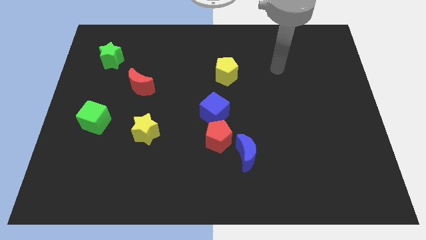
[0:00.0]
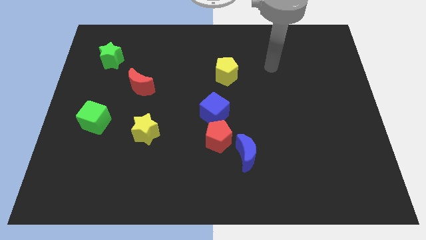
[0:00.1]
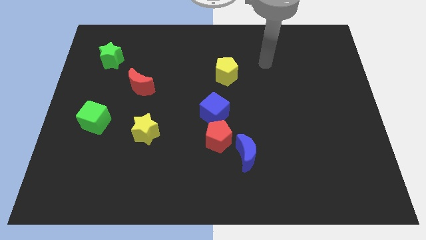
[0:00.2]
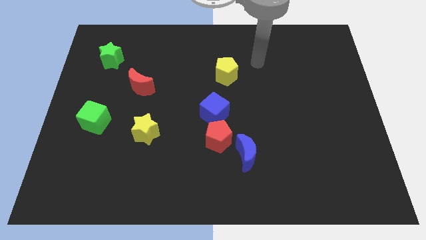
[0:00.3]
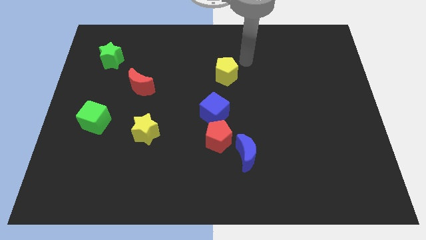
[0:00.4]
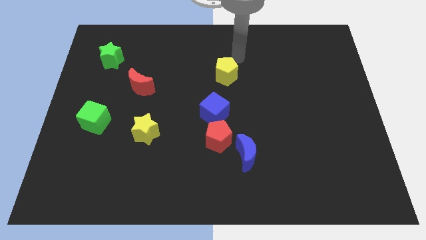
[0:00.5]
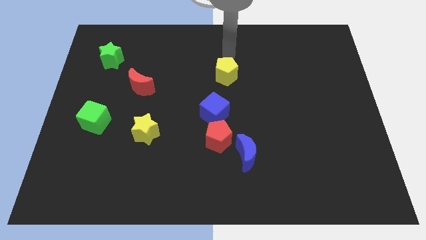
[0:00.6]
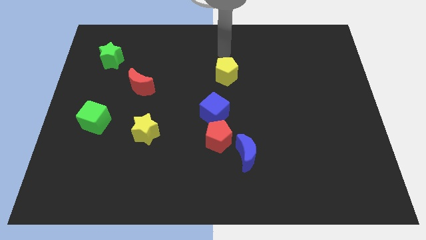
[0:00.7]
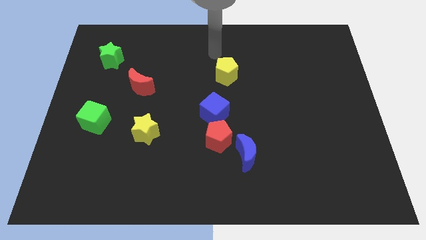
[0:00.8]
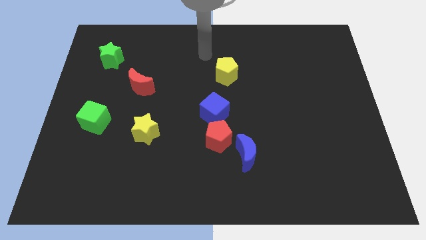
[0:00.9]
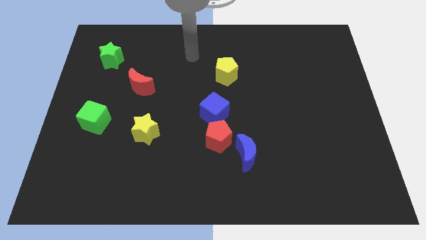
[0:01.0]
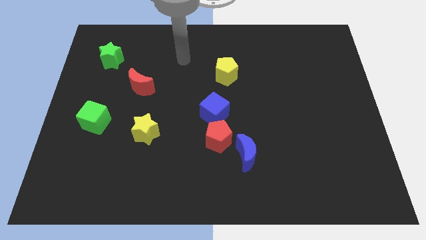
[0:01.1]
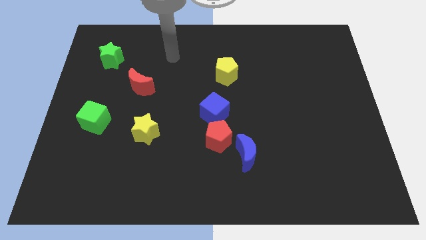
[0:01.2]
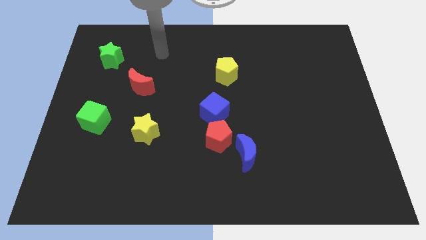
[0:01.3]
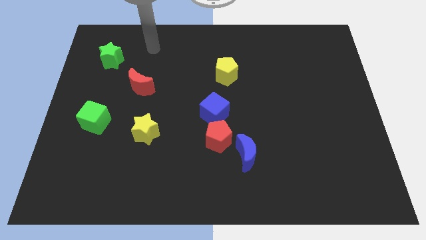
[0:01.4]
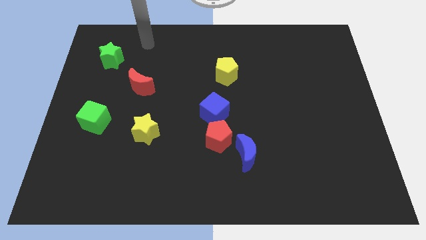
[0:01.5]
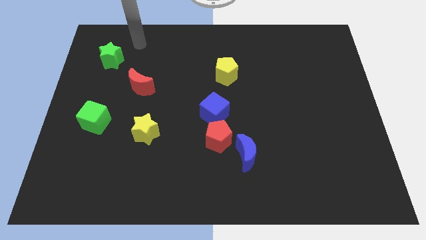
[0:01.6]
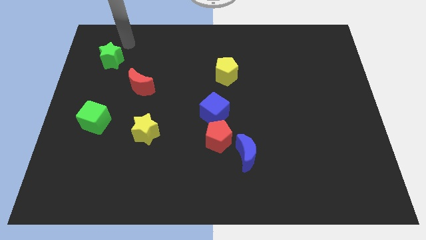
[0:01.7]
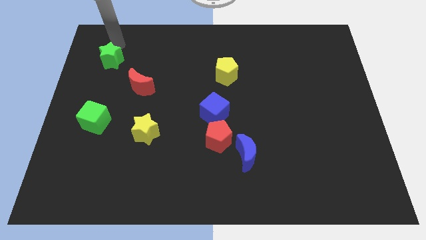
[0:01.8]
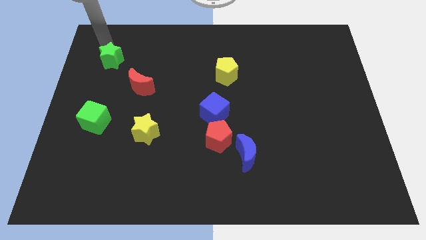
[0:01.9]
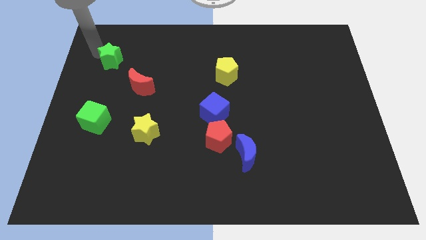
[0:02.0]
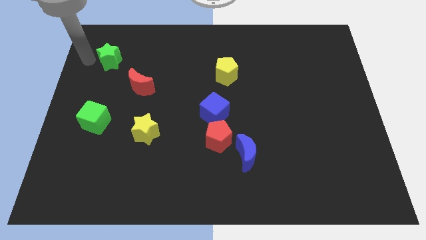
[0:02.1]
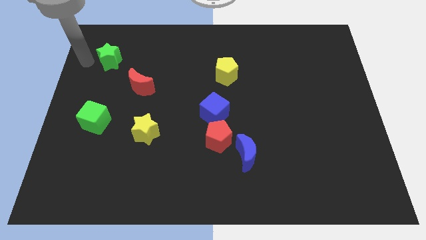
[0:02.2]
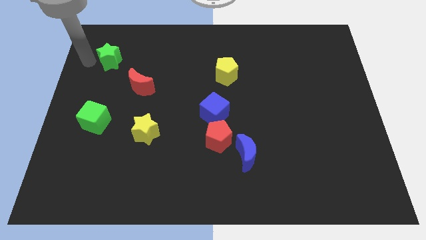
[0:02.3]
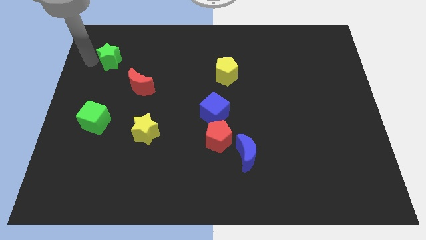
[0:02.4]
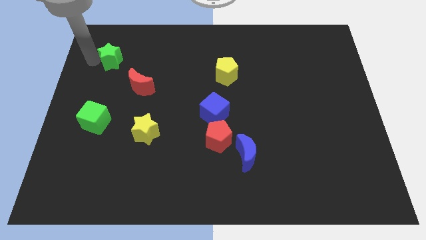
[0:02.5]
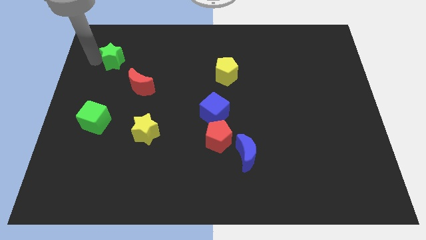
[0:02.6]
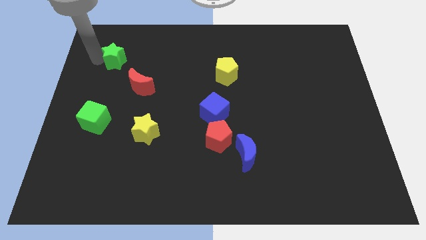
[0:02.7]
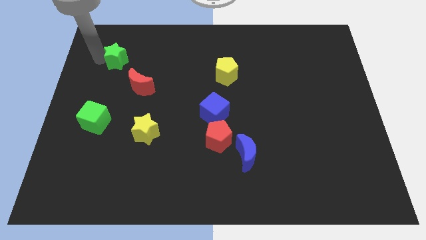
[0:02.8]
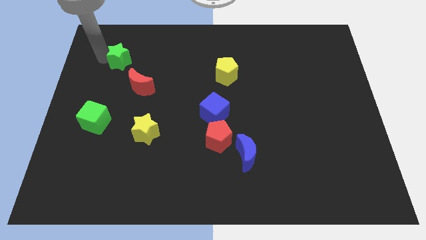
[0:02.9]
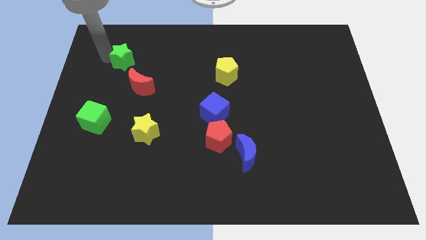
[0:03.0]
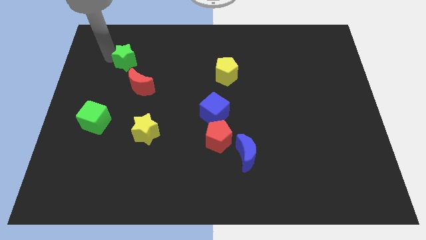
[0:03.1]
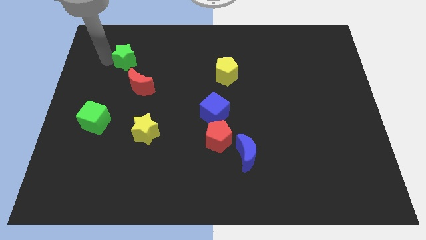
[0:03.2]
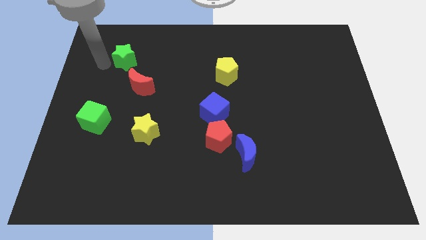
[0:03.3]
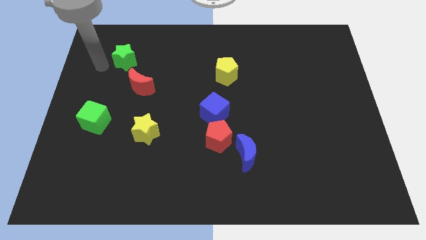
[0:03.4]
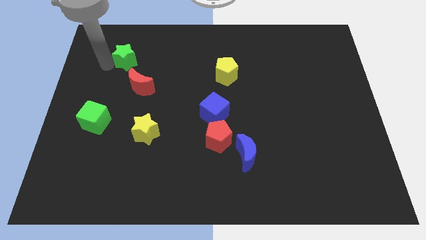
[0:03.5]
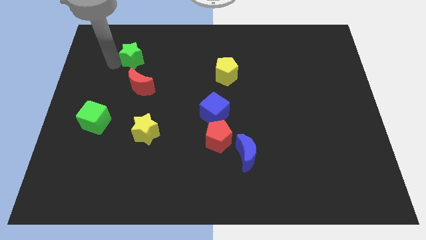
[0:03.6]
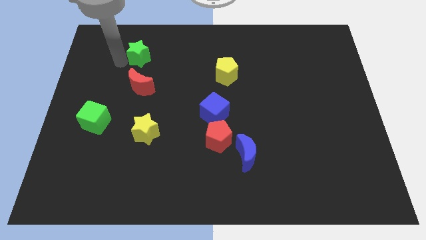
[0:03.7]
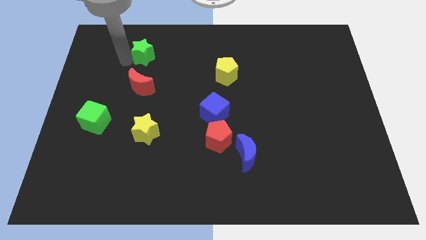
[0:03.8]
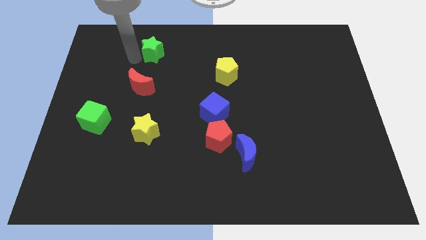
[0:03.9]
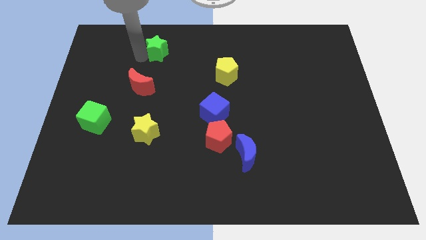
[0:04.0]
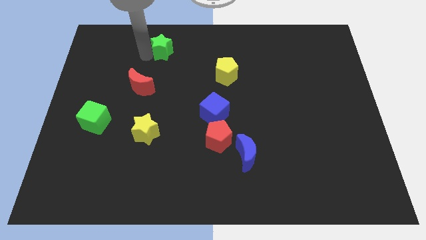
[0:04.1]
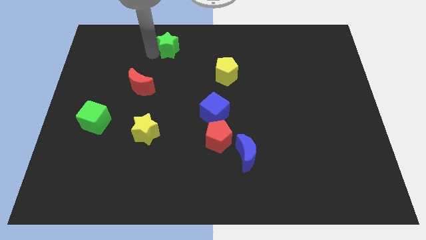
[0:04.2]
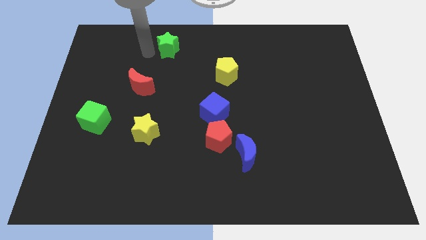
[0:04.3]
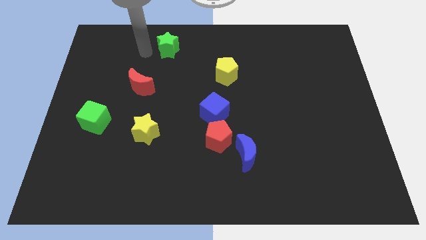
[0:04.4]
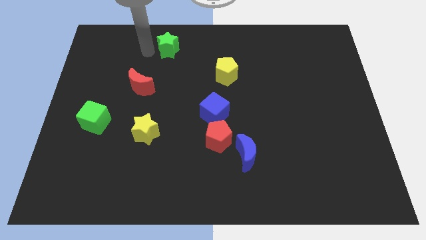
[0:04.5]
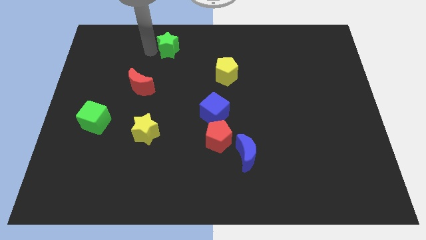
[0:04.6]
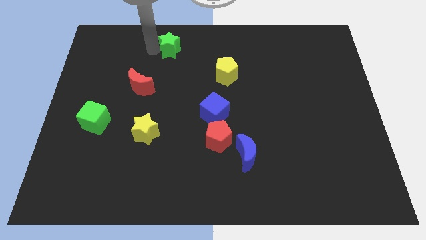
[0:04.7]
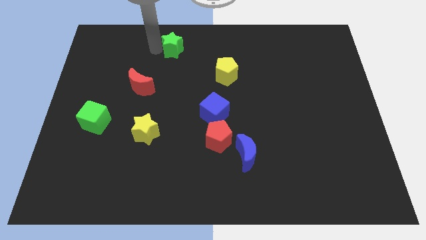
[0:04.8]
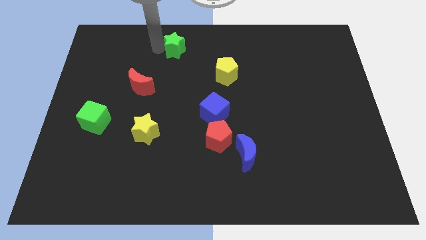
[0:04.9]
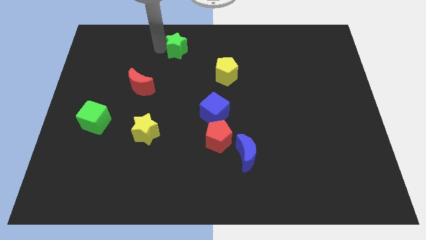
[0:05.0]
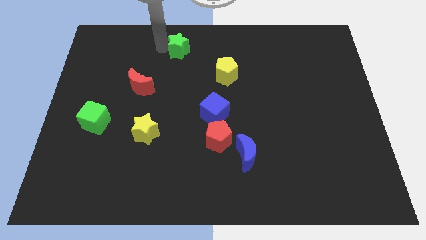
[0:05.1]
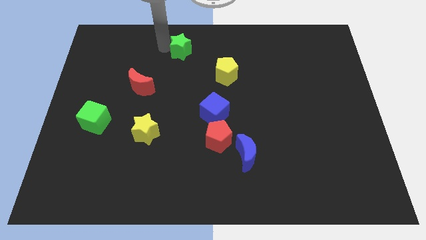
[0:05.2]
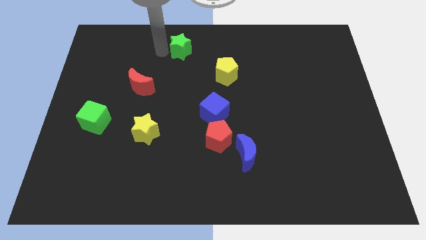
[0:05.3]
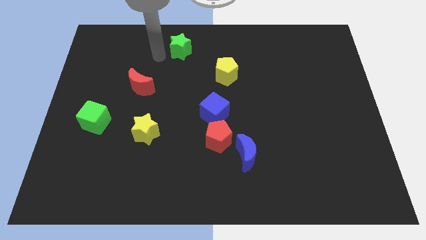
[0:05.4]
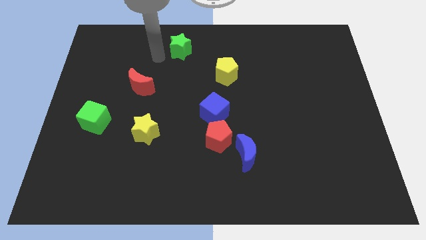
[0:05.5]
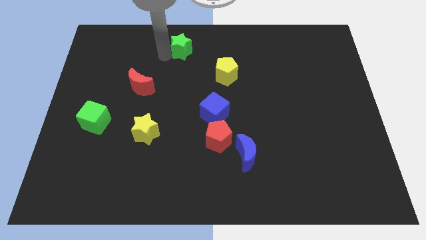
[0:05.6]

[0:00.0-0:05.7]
slide the green star to the top
